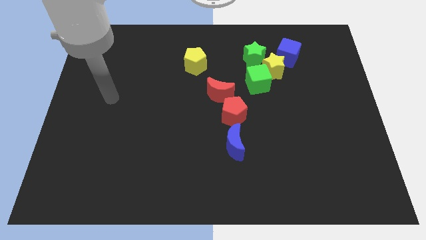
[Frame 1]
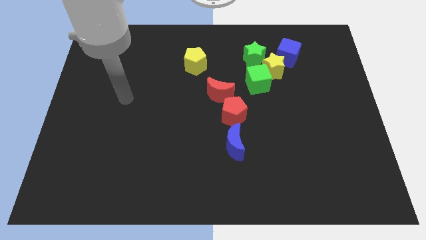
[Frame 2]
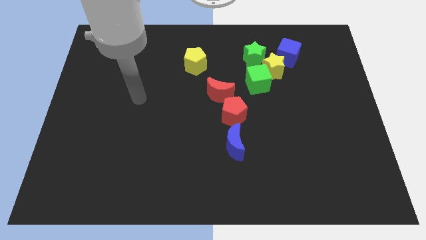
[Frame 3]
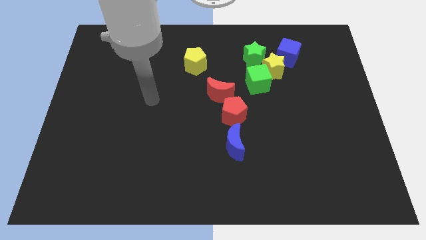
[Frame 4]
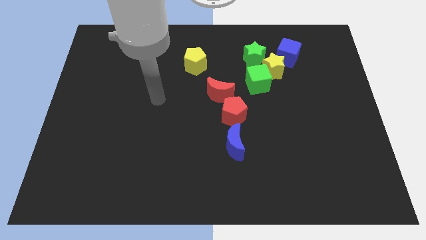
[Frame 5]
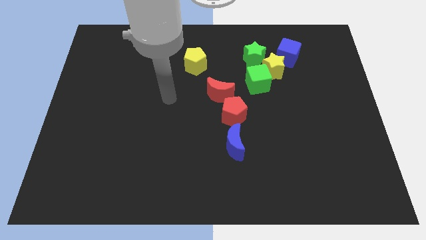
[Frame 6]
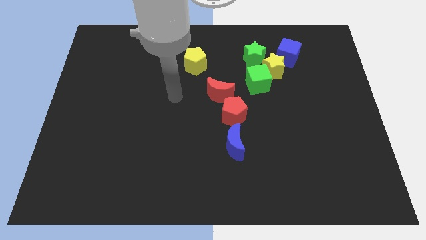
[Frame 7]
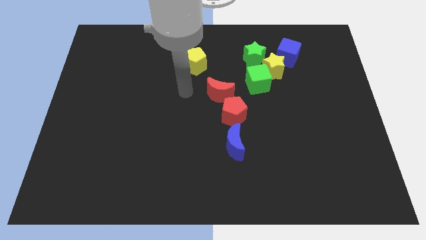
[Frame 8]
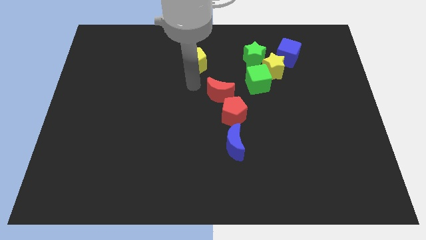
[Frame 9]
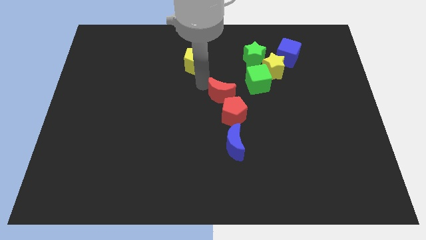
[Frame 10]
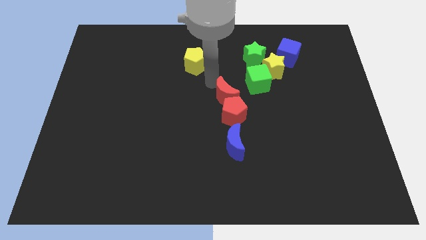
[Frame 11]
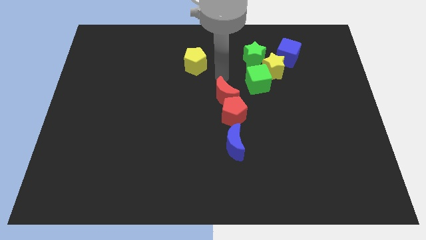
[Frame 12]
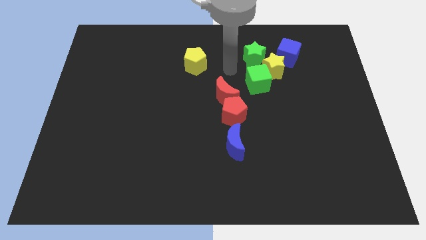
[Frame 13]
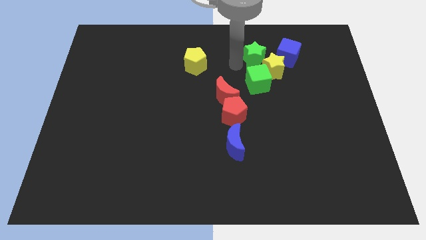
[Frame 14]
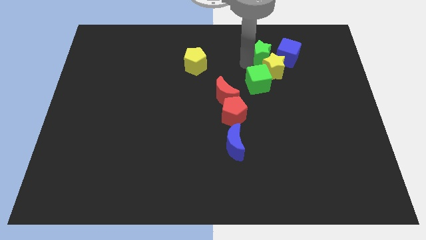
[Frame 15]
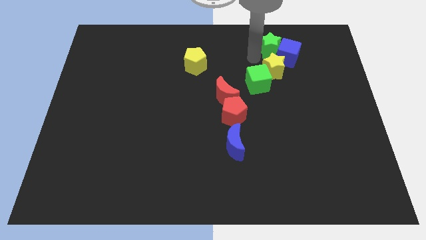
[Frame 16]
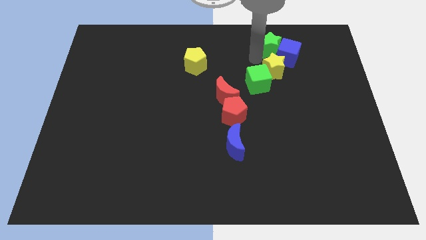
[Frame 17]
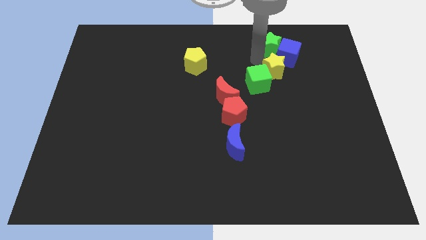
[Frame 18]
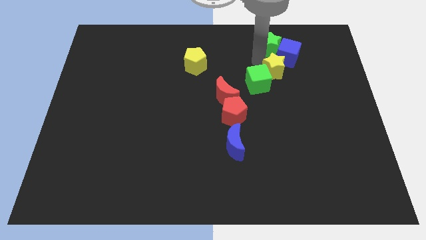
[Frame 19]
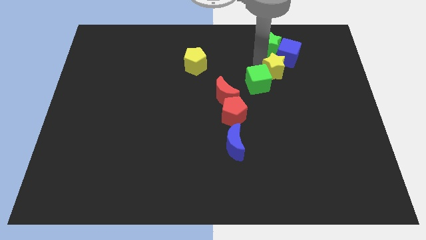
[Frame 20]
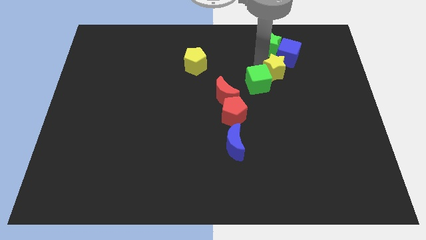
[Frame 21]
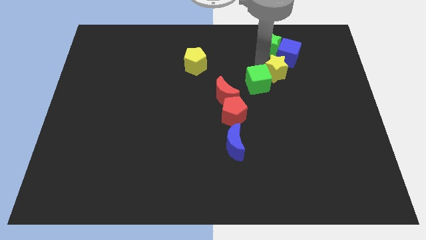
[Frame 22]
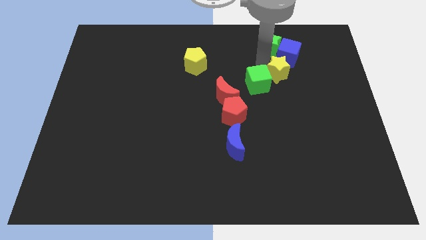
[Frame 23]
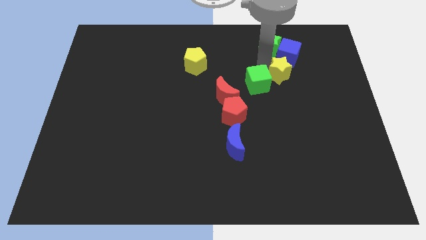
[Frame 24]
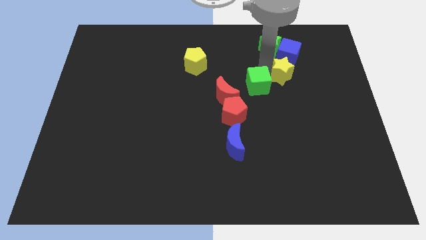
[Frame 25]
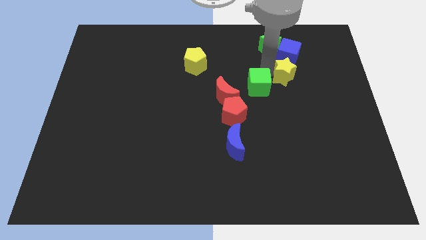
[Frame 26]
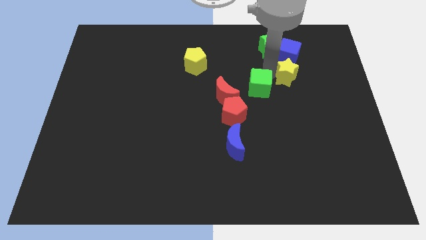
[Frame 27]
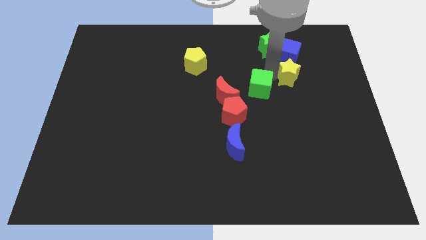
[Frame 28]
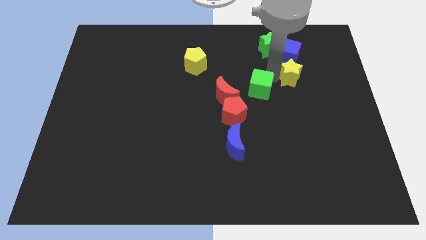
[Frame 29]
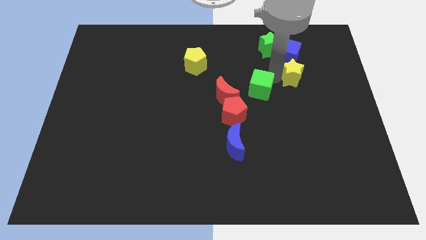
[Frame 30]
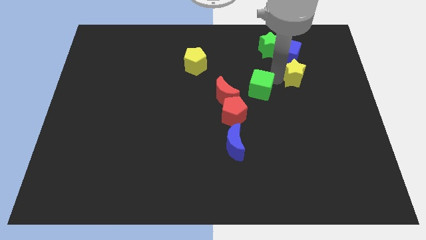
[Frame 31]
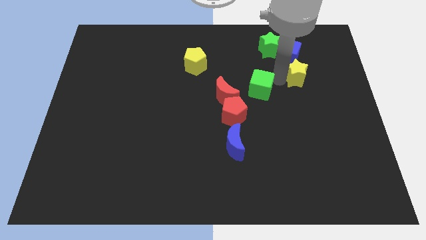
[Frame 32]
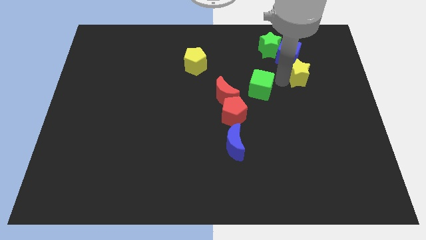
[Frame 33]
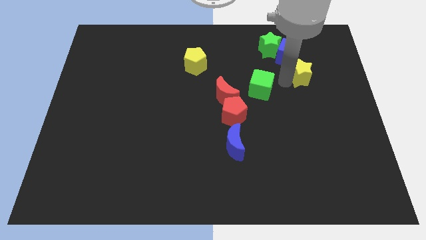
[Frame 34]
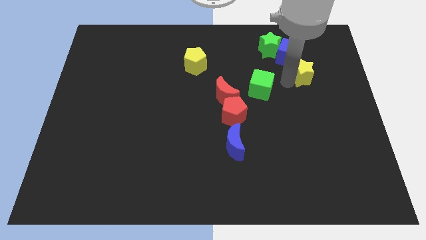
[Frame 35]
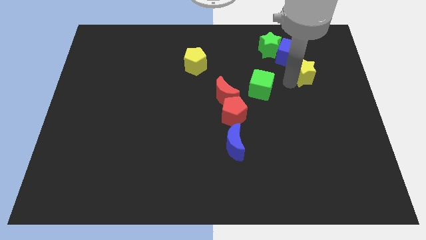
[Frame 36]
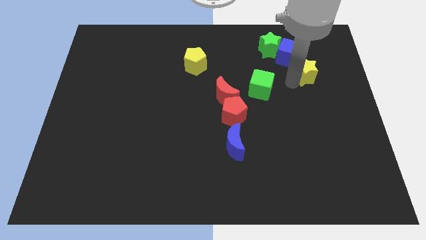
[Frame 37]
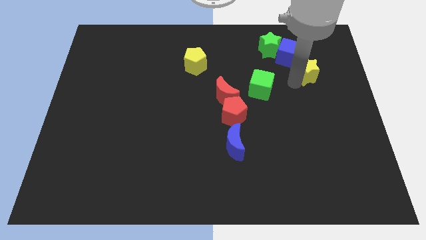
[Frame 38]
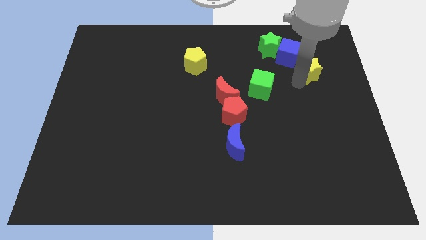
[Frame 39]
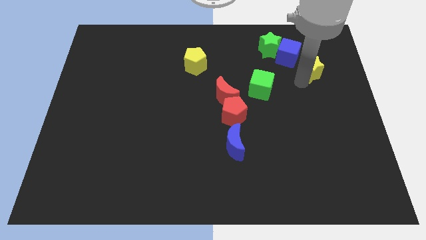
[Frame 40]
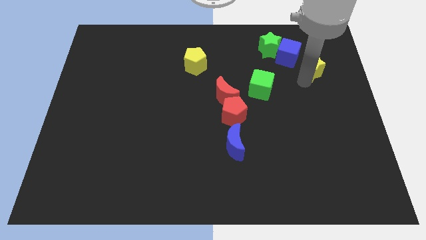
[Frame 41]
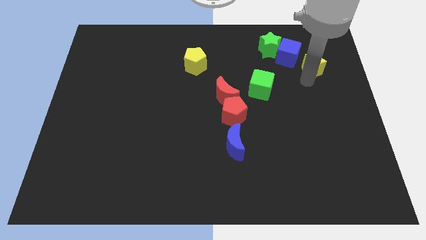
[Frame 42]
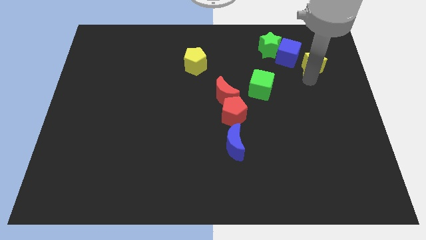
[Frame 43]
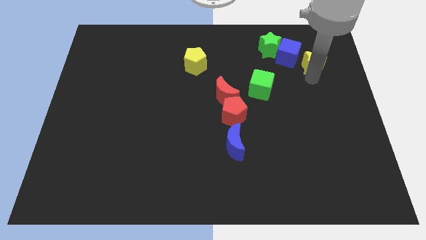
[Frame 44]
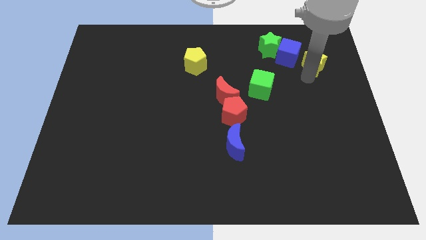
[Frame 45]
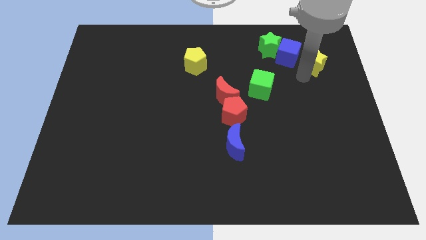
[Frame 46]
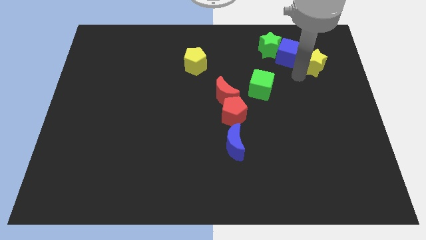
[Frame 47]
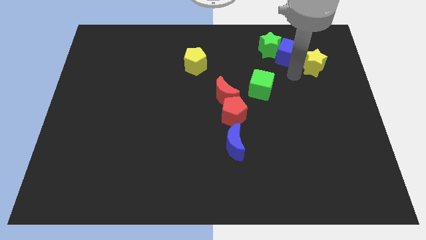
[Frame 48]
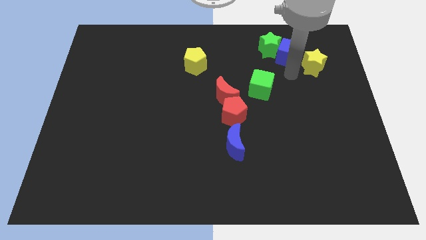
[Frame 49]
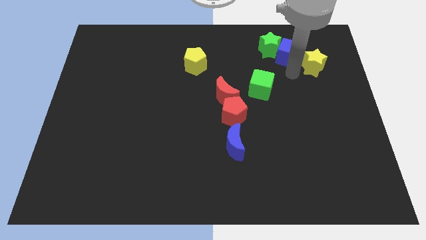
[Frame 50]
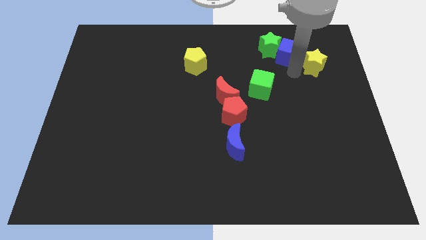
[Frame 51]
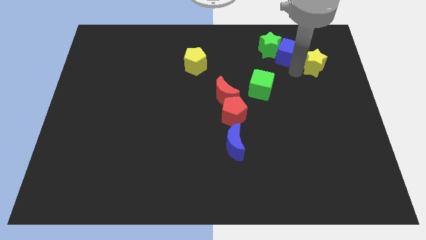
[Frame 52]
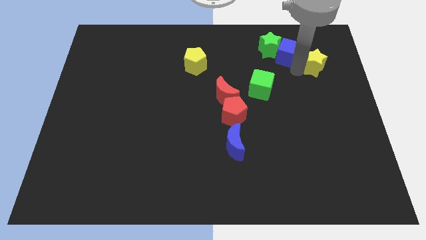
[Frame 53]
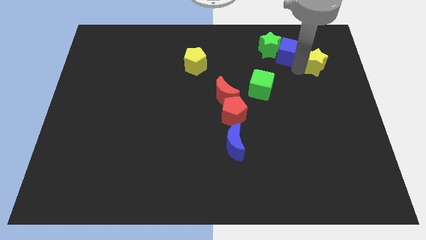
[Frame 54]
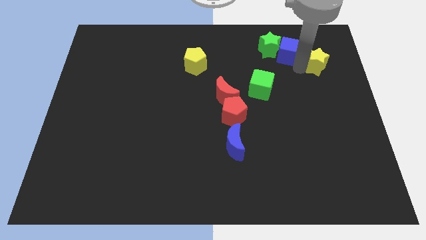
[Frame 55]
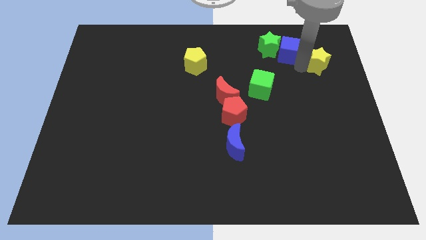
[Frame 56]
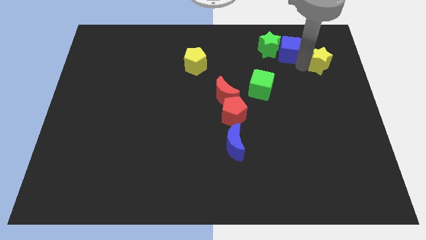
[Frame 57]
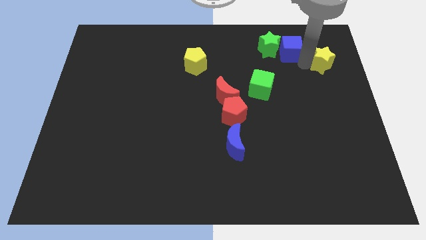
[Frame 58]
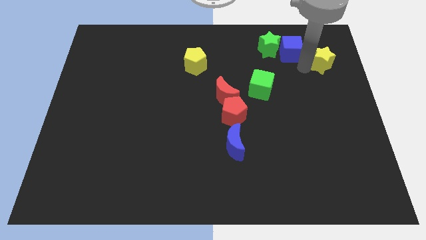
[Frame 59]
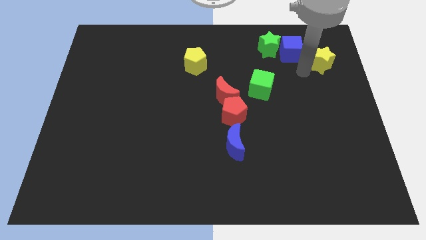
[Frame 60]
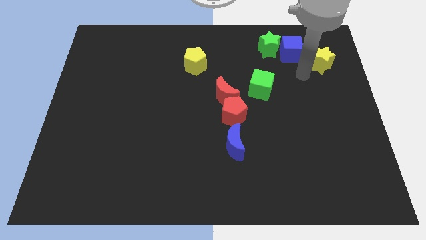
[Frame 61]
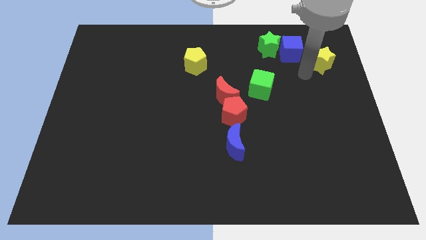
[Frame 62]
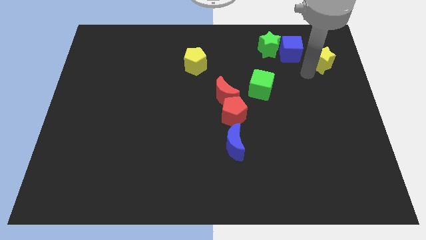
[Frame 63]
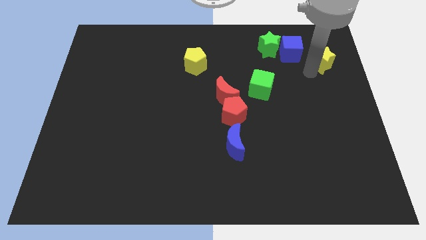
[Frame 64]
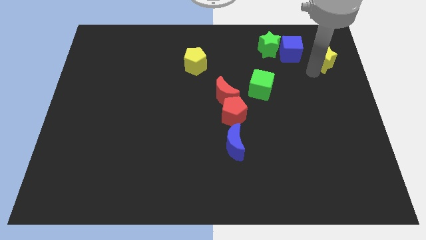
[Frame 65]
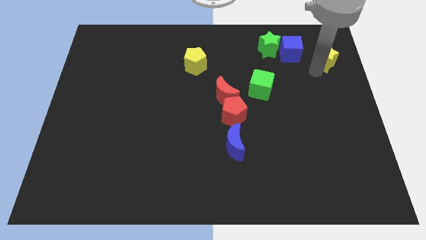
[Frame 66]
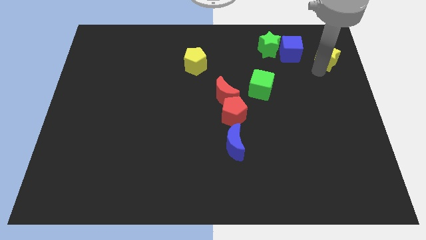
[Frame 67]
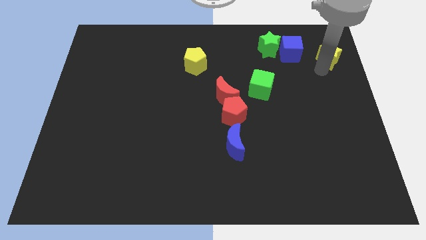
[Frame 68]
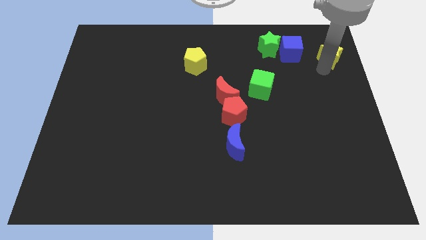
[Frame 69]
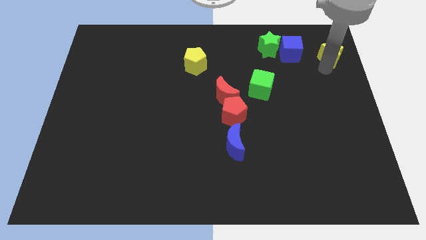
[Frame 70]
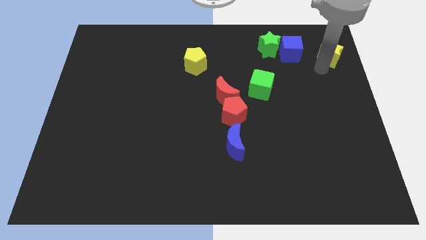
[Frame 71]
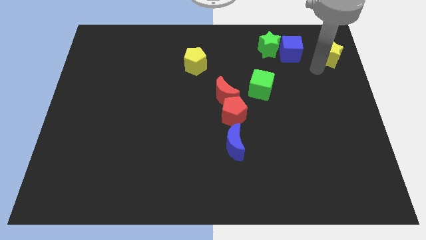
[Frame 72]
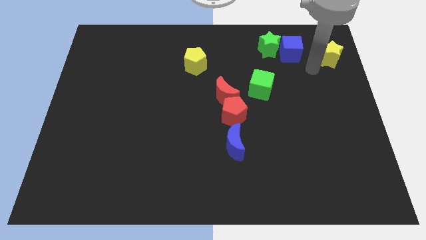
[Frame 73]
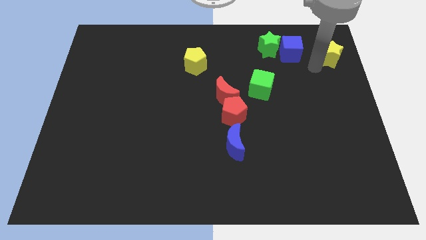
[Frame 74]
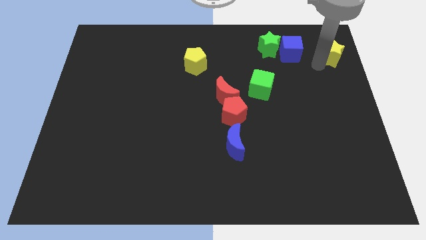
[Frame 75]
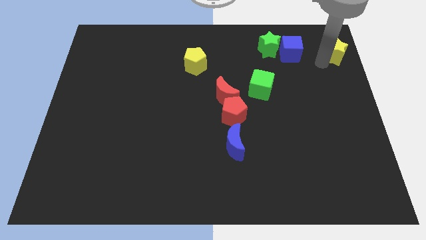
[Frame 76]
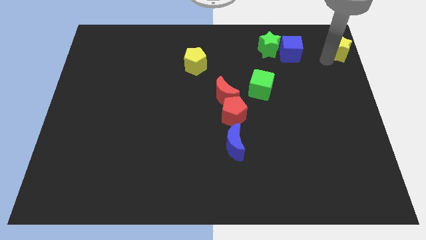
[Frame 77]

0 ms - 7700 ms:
slide the yellow star to the top right of the board
